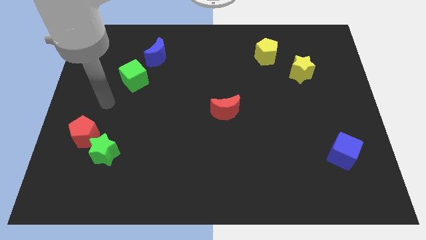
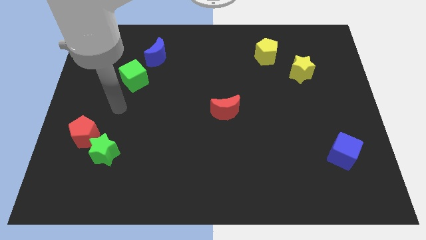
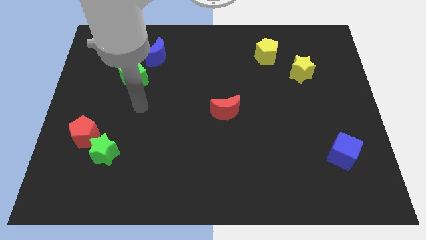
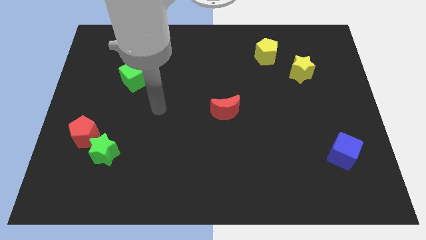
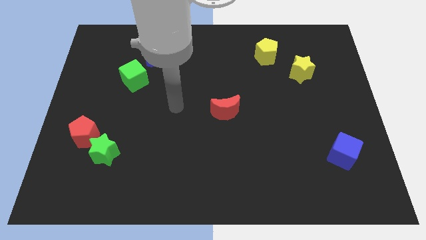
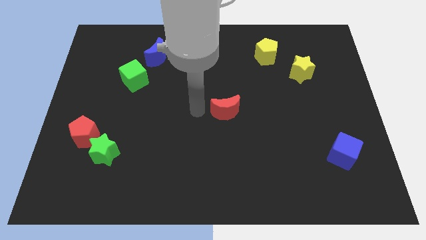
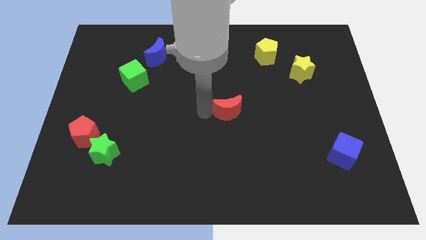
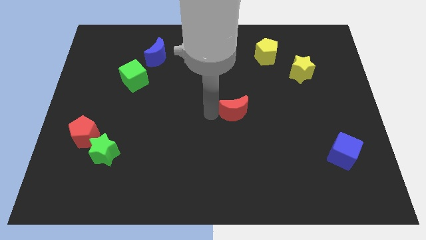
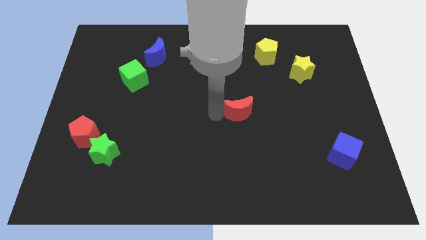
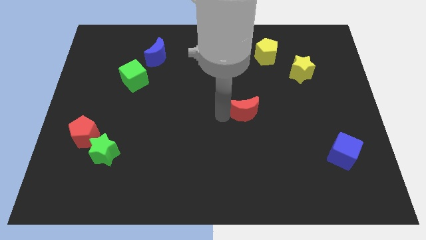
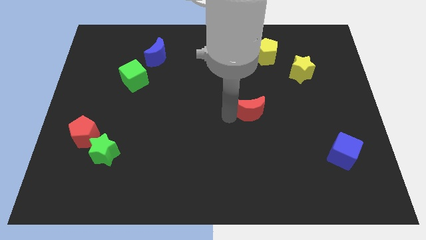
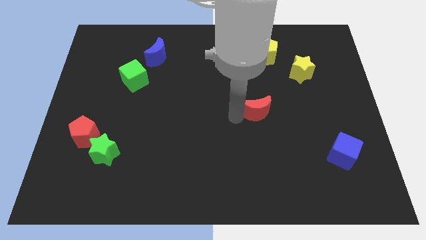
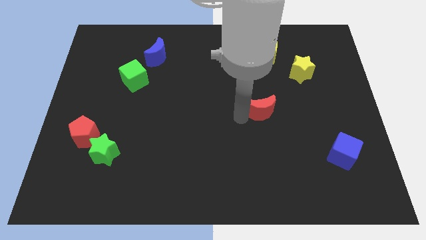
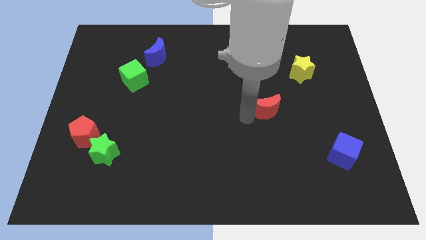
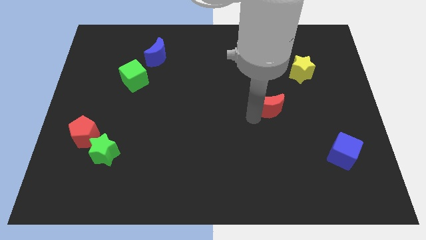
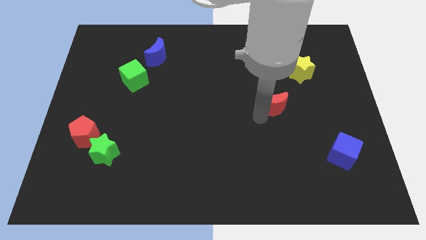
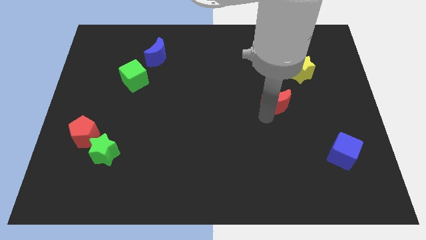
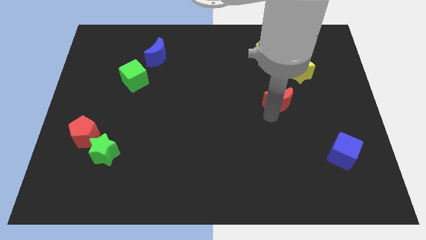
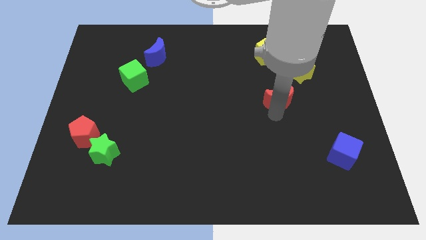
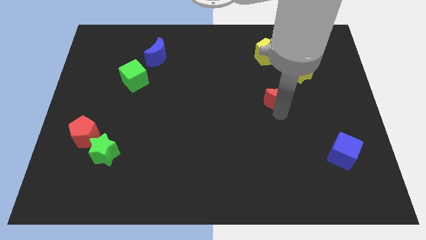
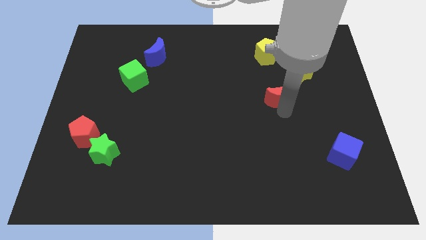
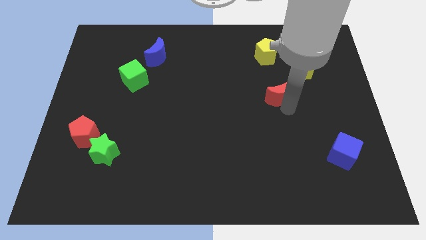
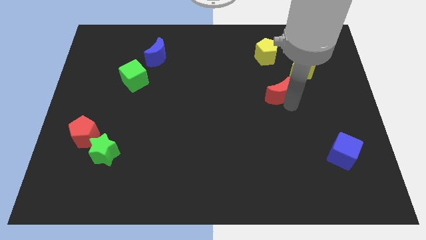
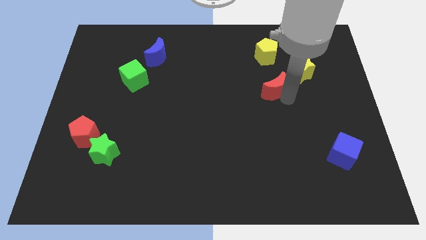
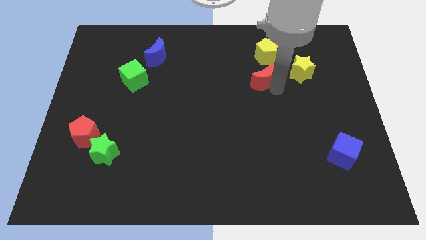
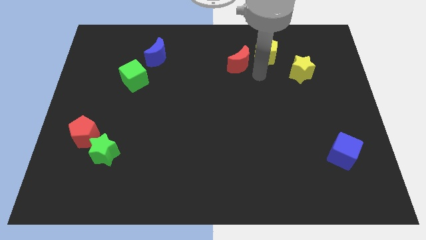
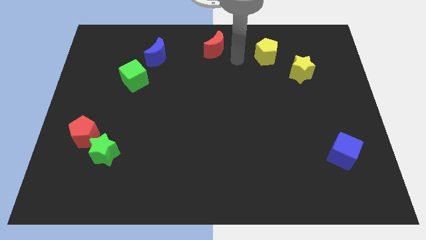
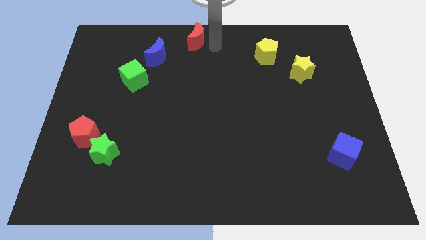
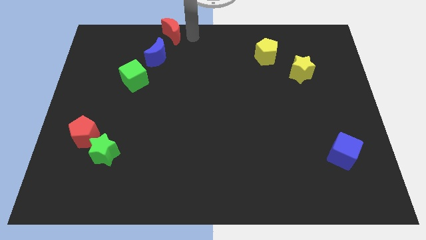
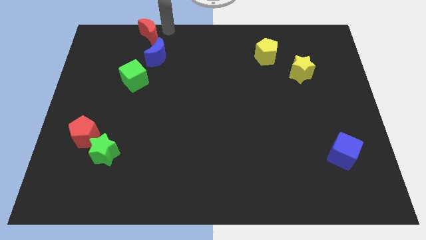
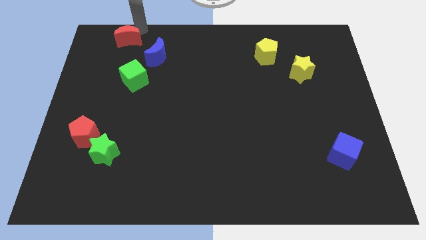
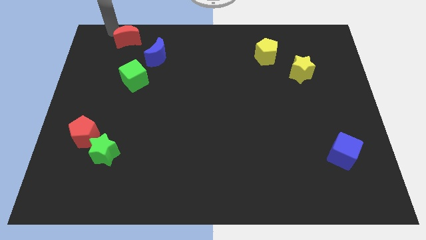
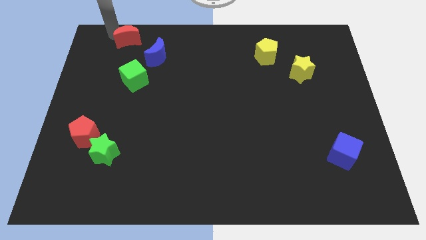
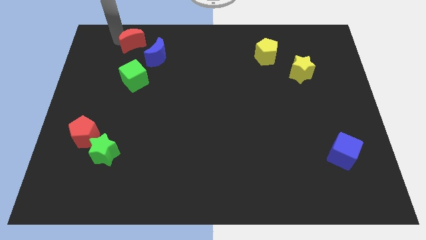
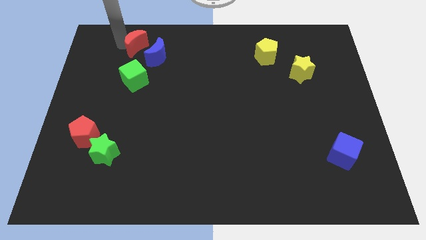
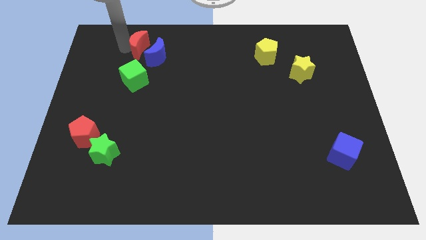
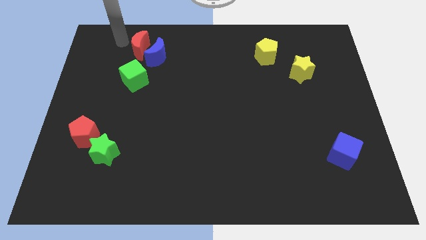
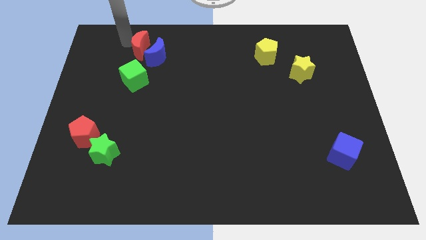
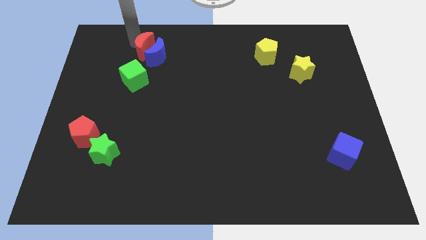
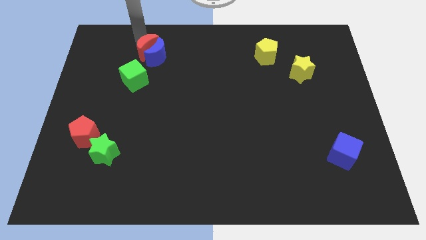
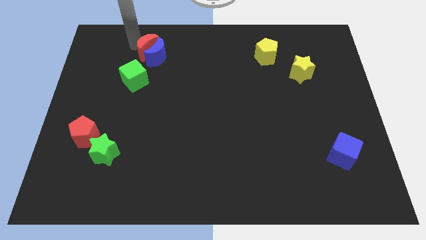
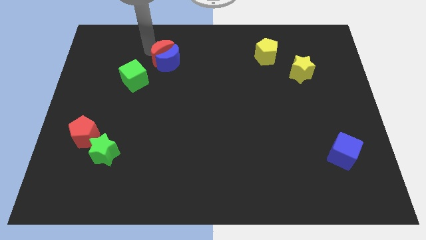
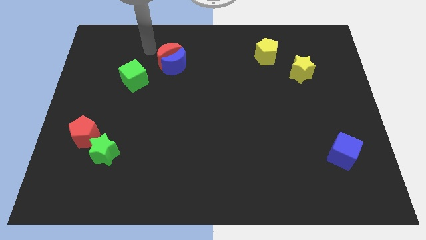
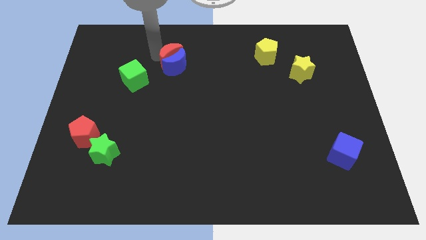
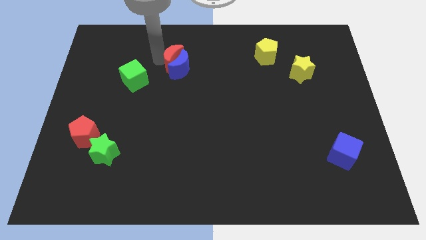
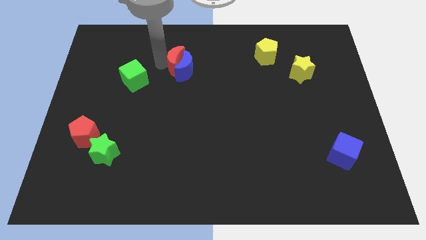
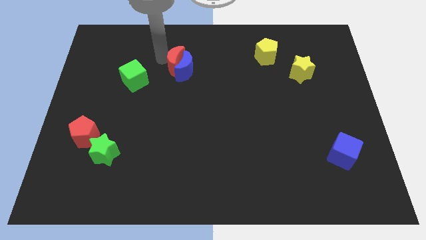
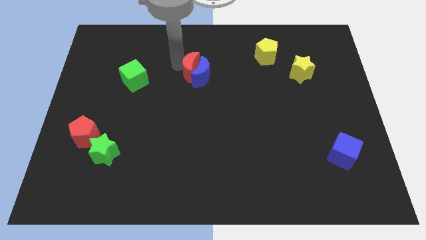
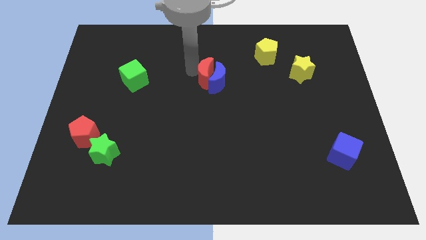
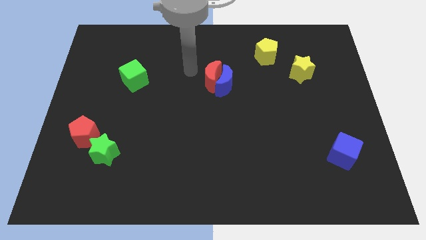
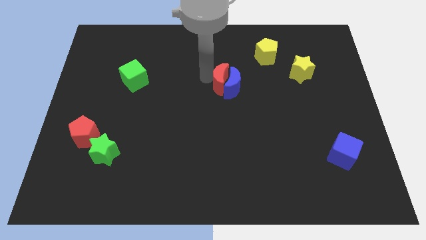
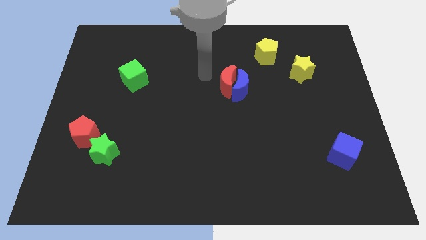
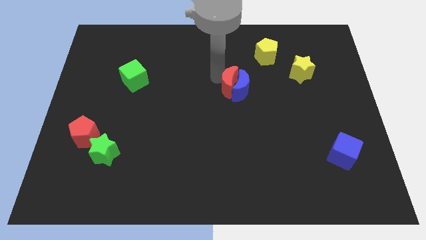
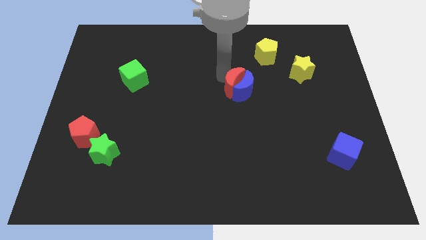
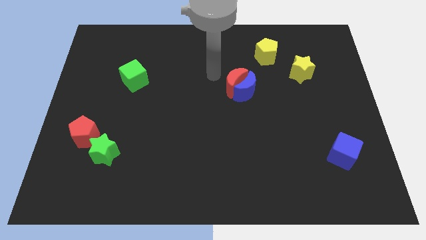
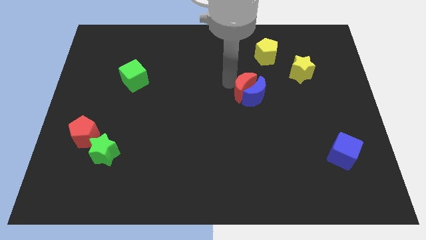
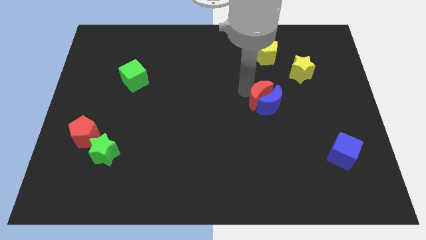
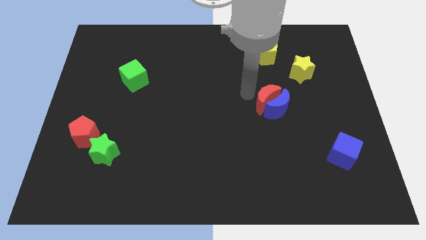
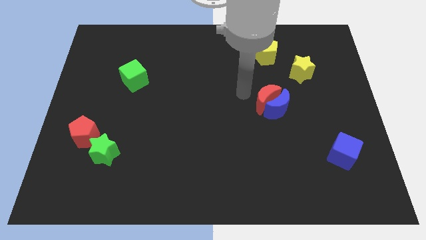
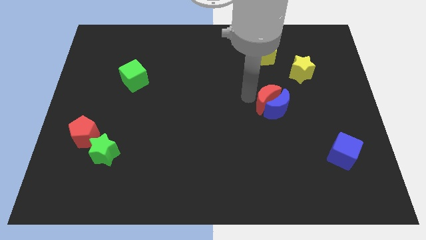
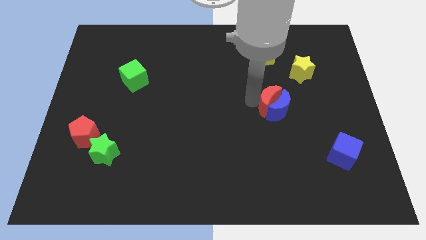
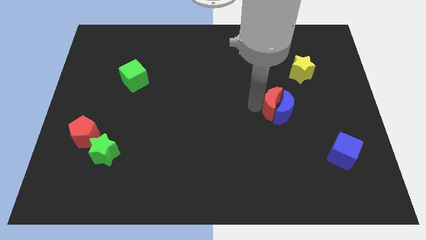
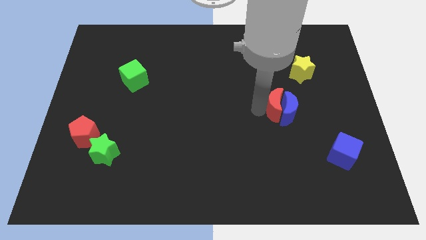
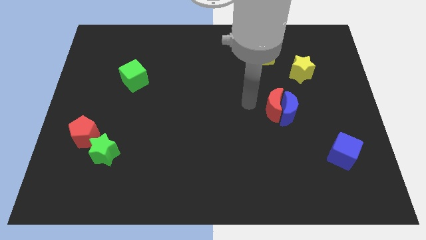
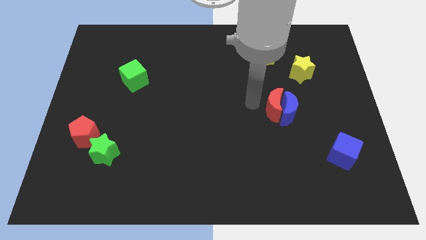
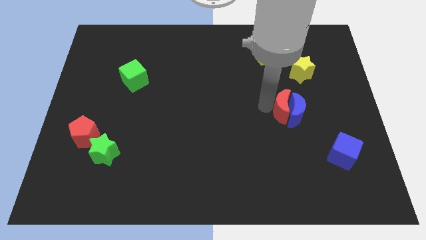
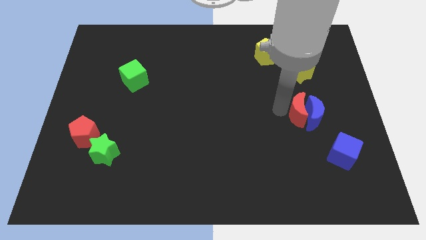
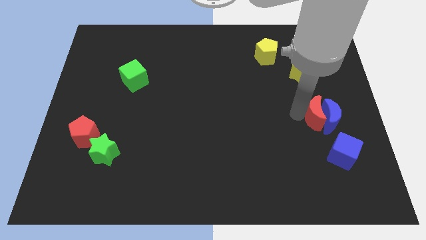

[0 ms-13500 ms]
push the red moon above the blue cube

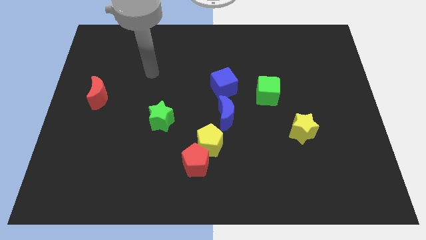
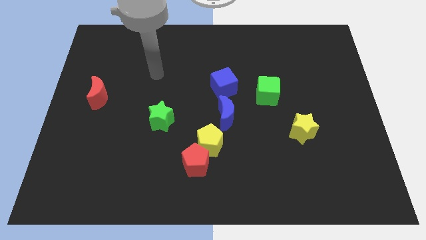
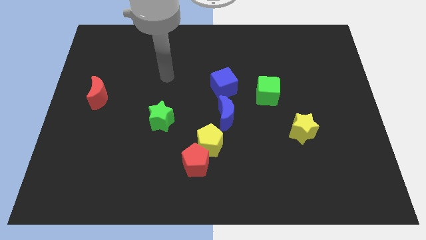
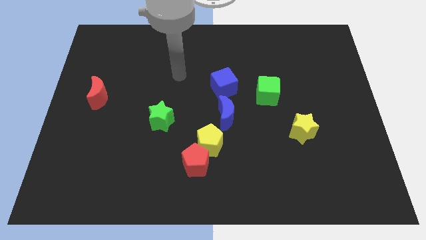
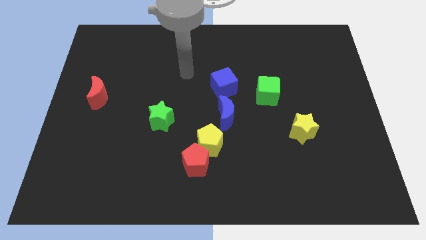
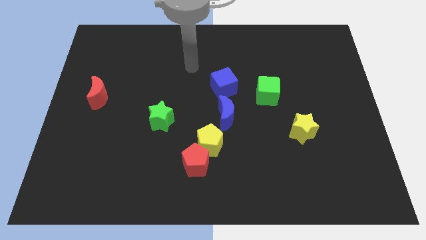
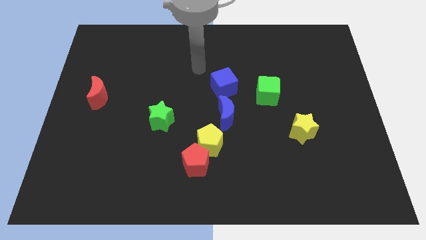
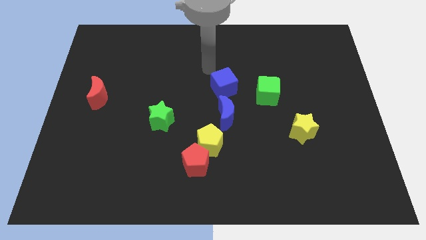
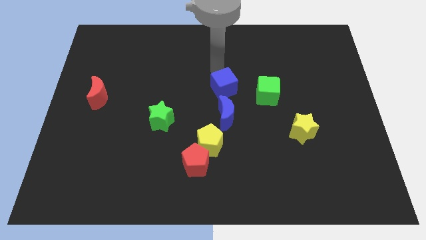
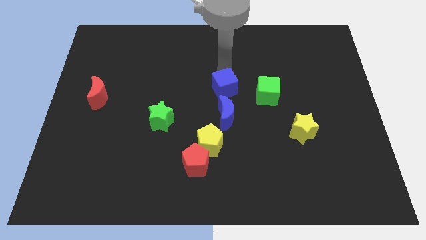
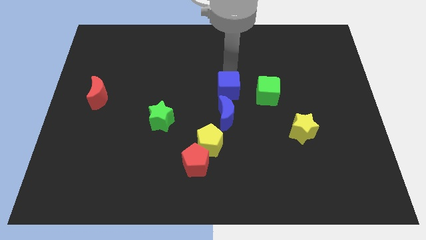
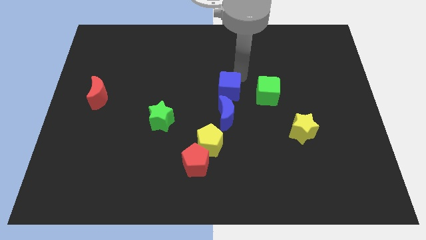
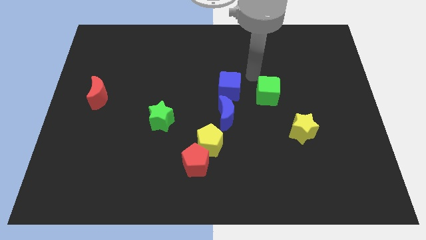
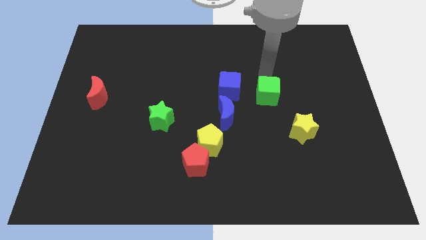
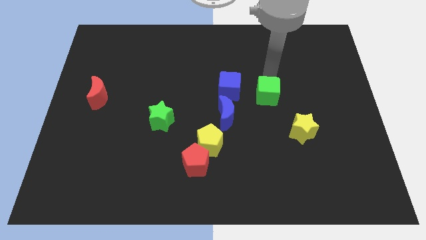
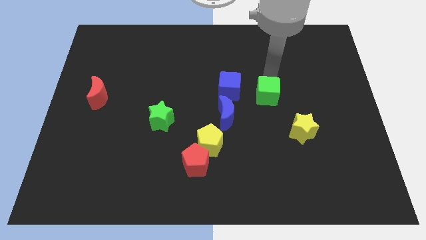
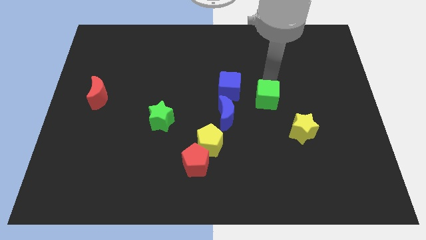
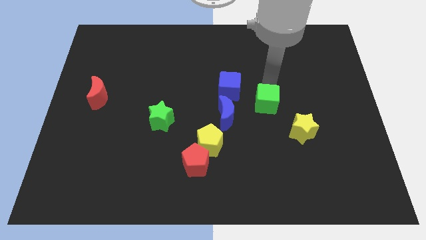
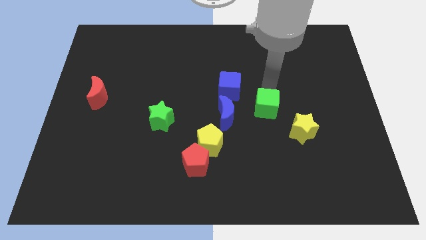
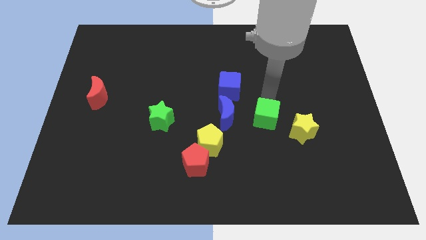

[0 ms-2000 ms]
move the green cube to the left side of the yellow star
